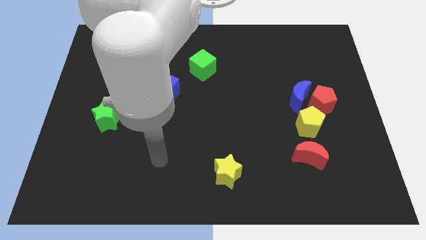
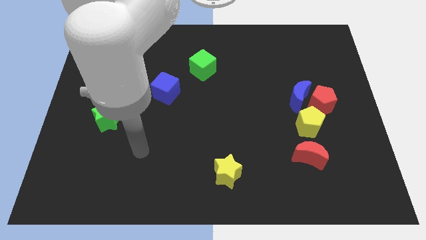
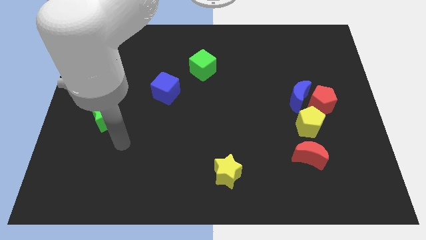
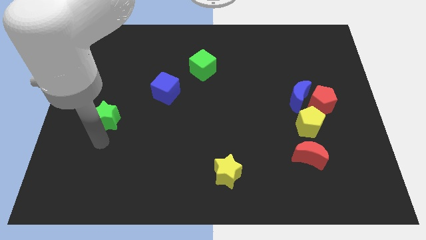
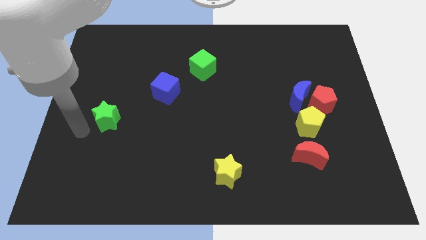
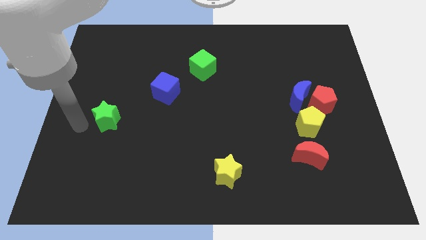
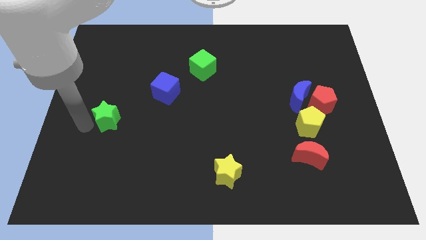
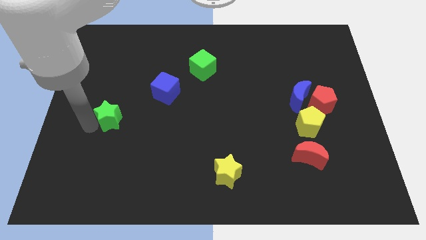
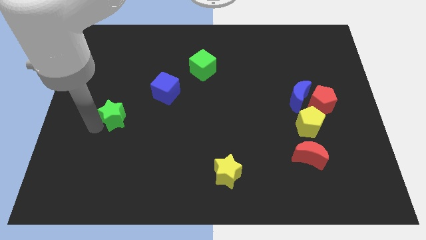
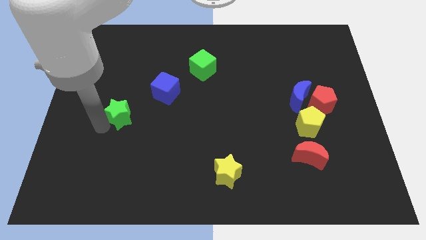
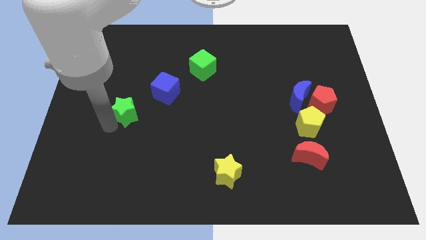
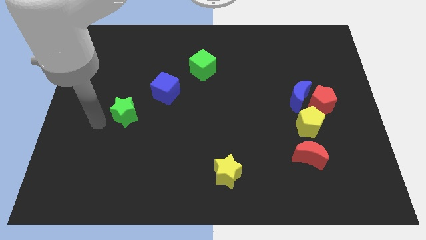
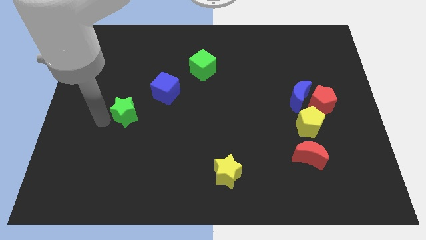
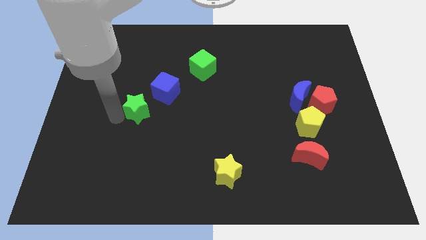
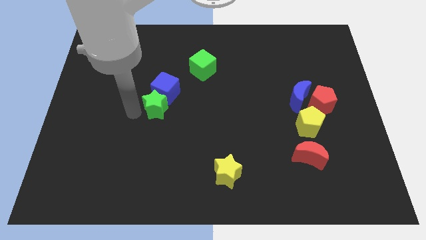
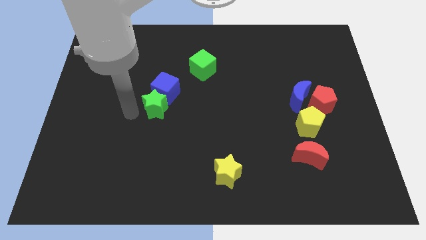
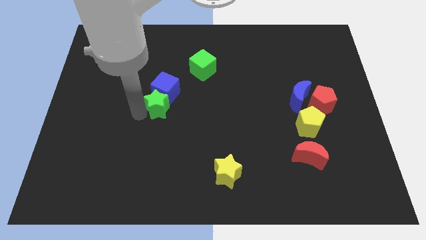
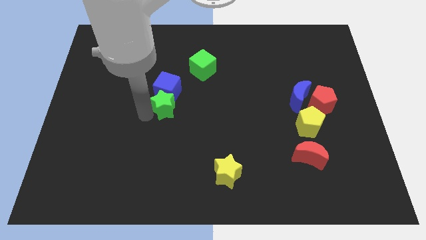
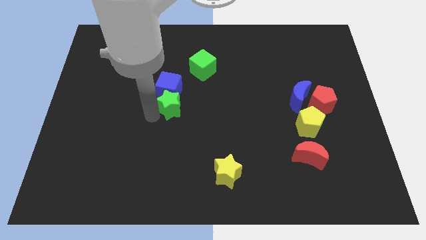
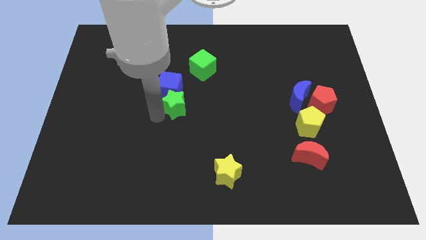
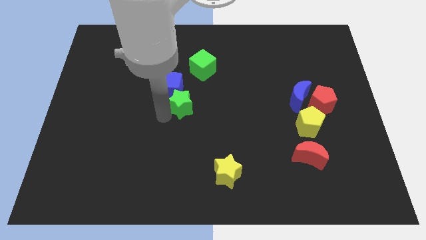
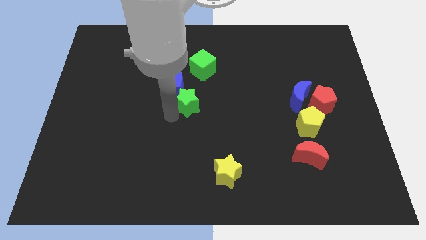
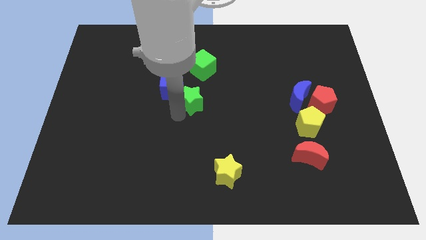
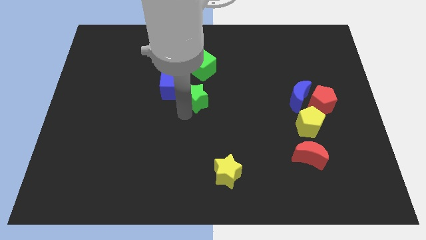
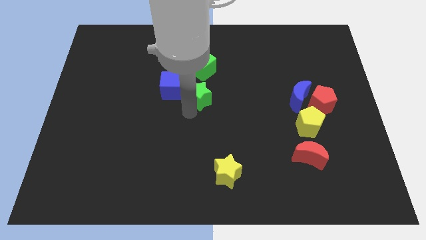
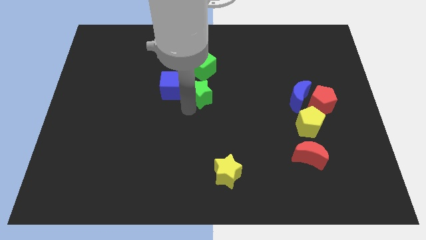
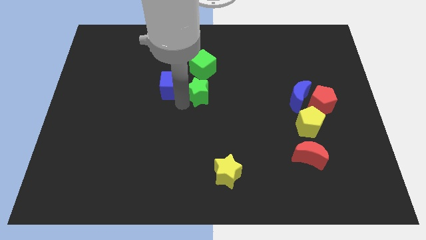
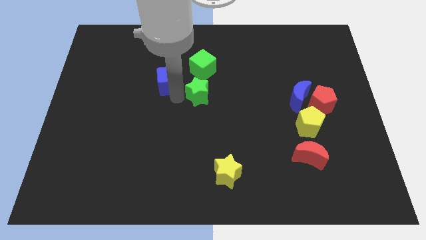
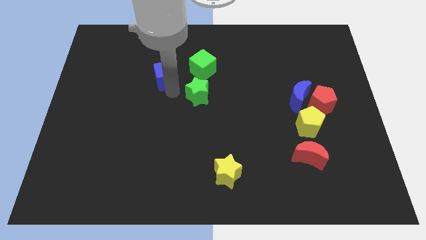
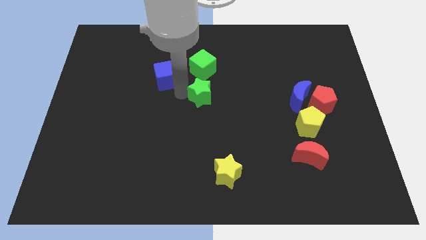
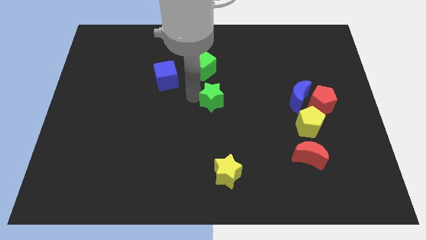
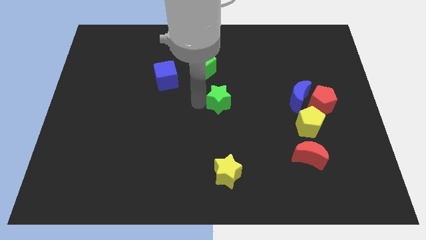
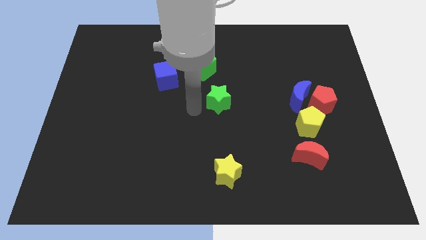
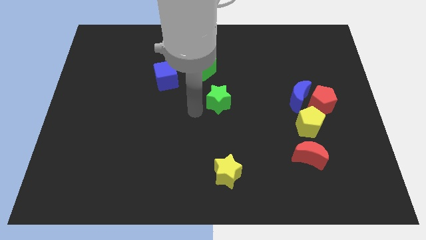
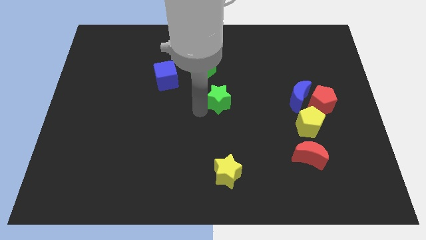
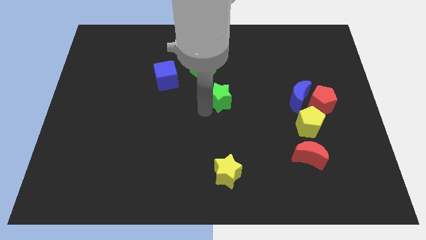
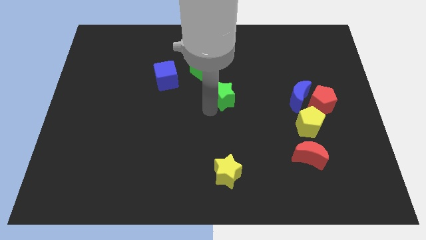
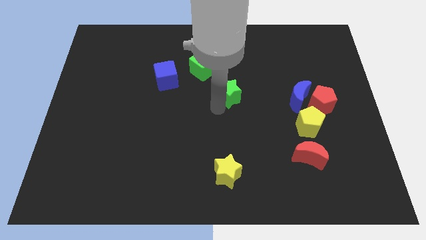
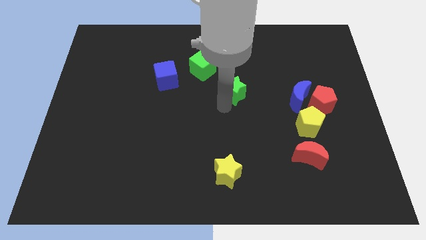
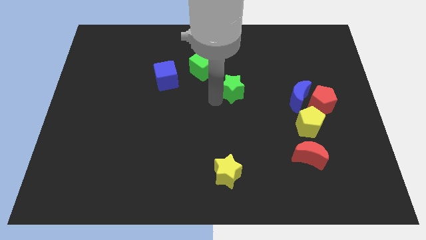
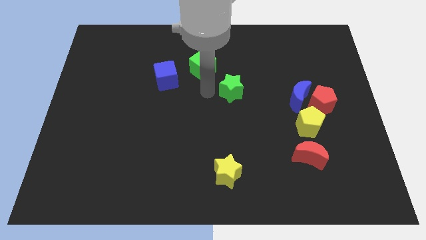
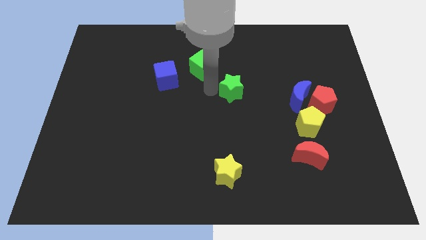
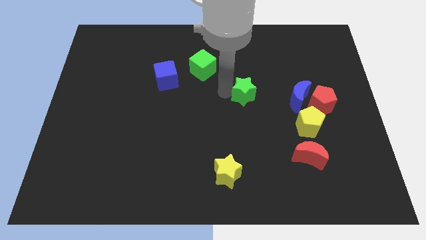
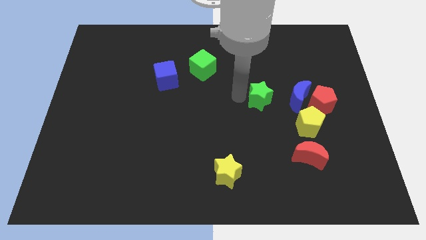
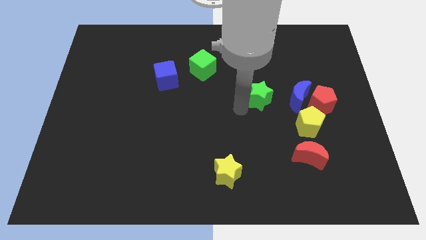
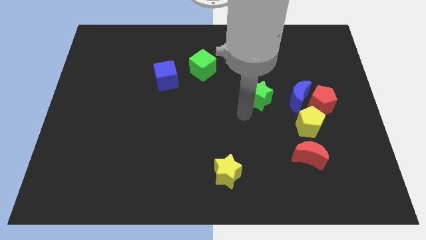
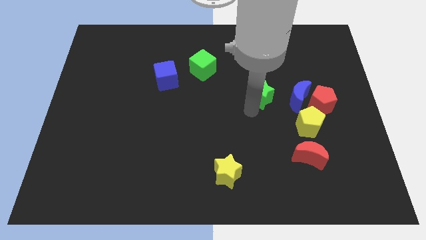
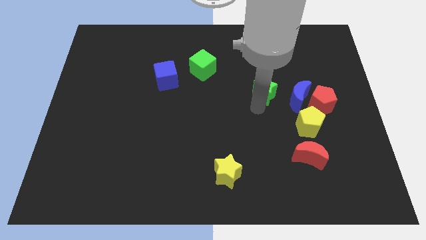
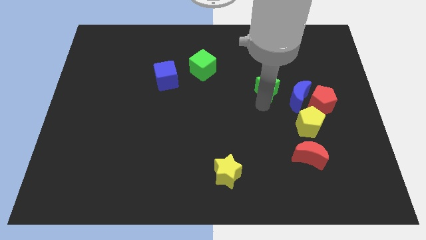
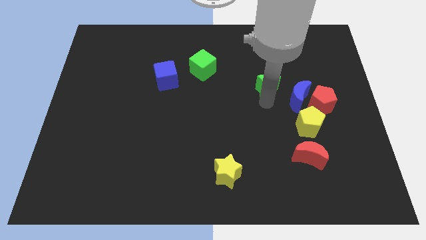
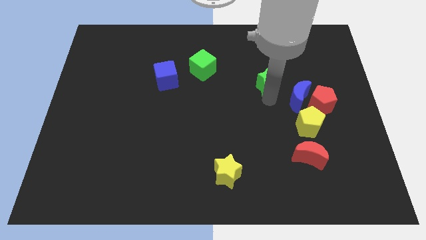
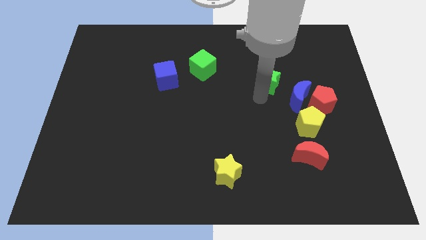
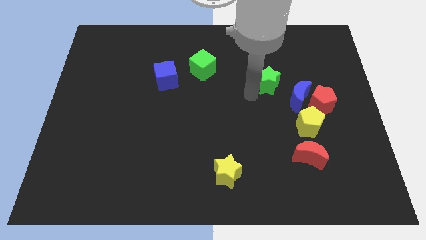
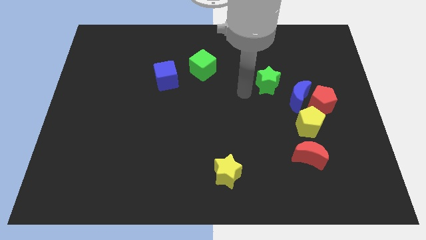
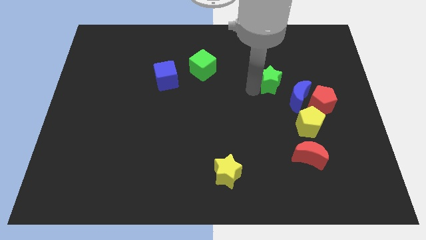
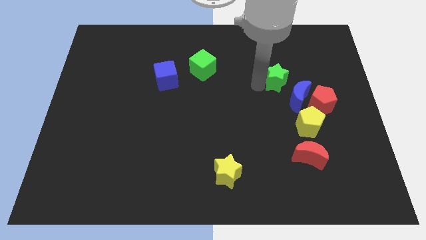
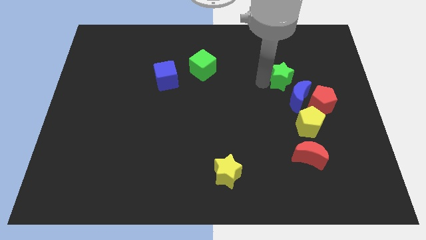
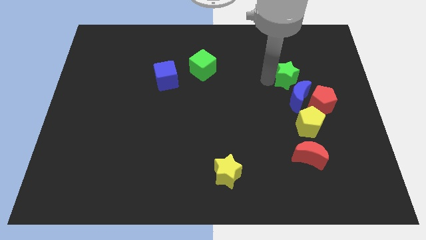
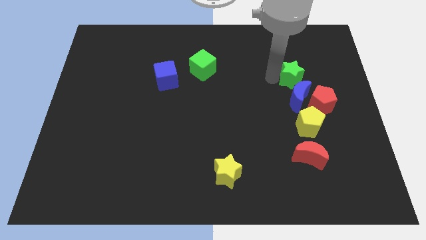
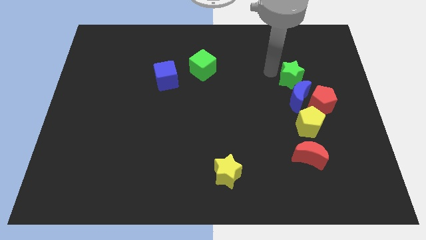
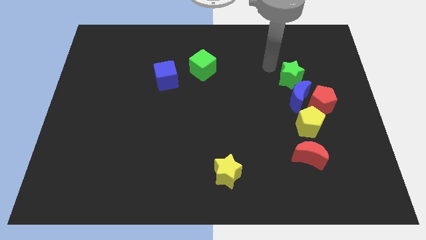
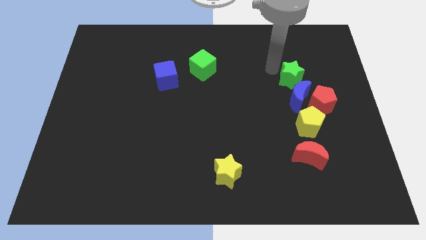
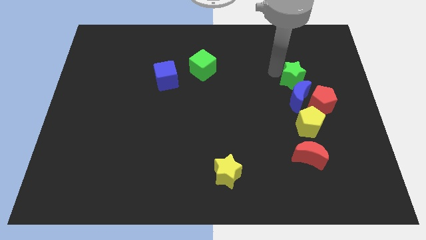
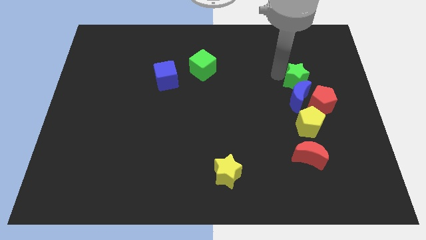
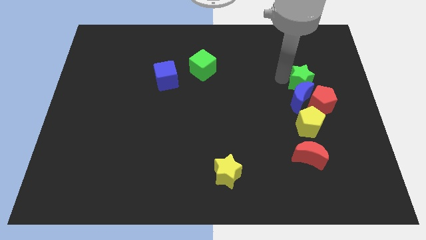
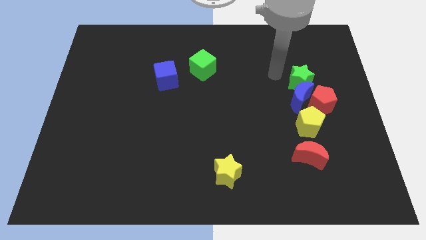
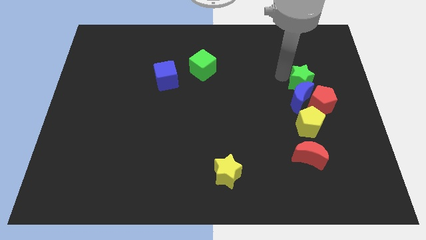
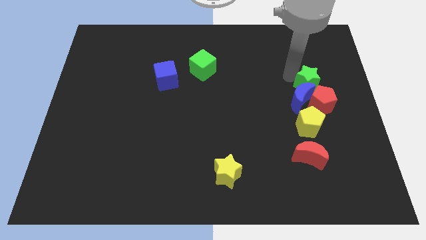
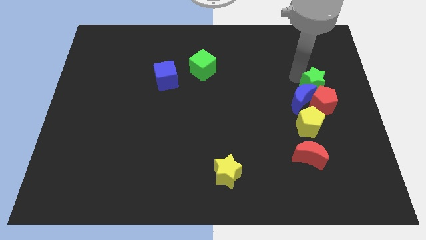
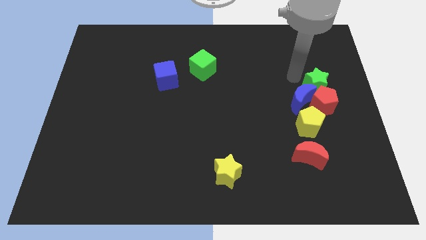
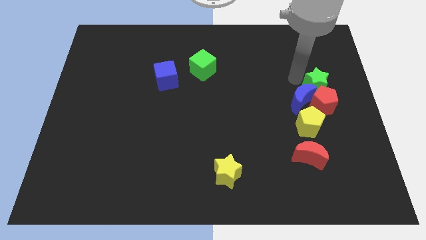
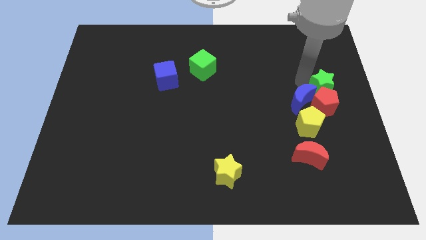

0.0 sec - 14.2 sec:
put the green star to the right side of the board
